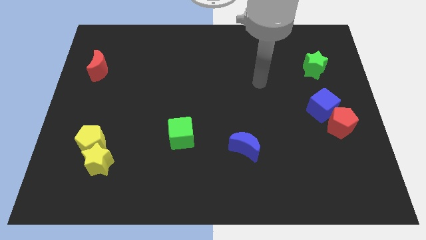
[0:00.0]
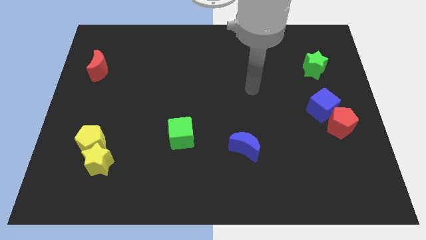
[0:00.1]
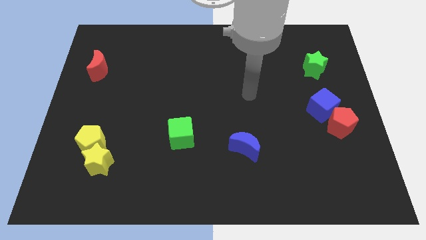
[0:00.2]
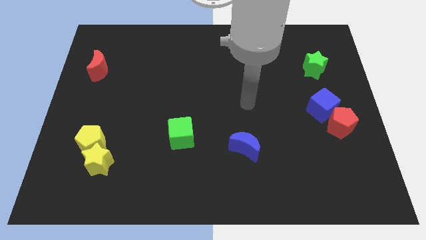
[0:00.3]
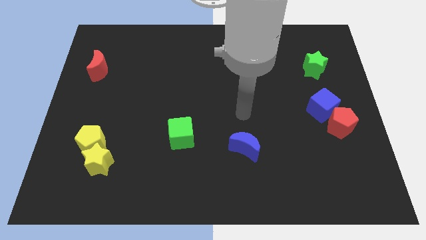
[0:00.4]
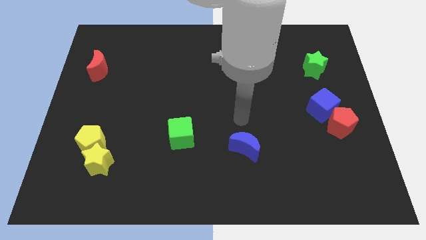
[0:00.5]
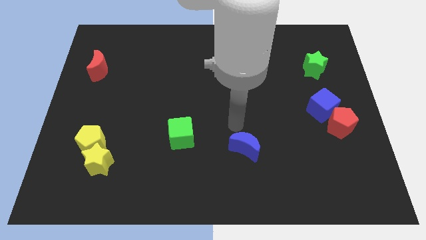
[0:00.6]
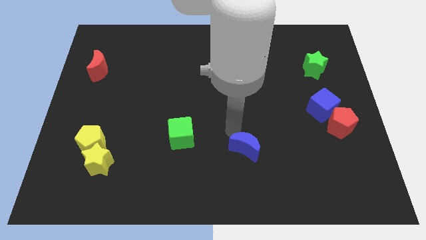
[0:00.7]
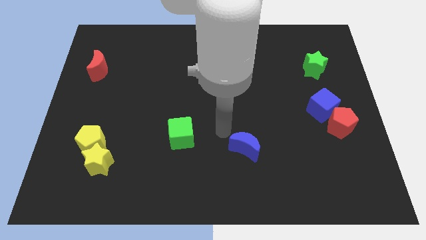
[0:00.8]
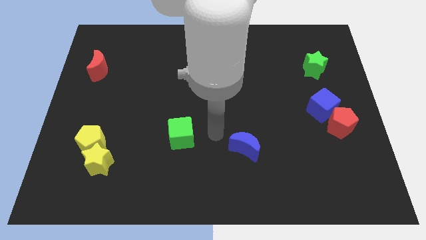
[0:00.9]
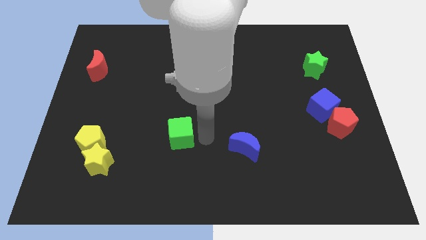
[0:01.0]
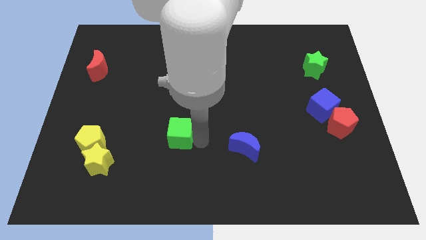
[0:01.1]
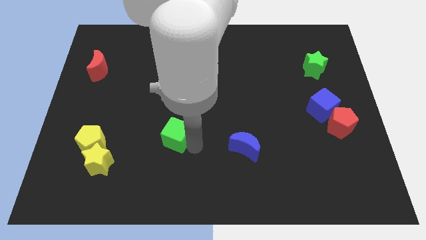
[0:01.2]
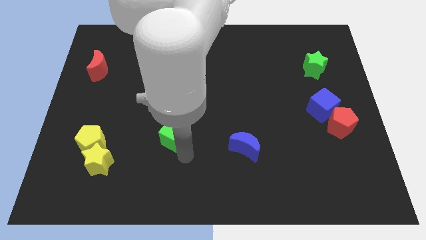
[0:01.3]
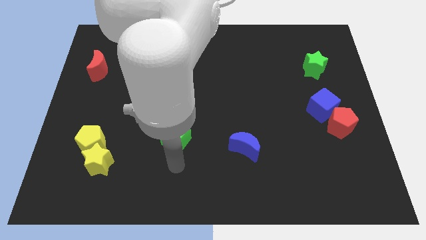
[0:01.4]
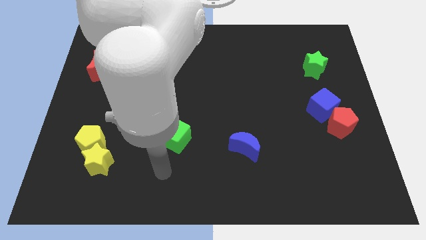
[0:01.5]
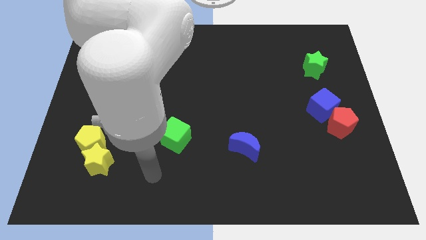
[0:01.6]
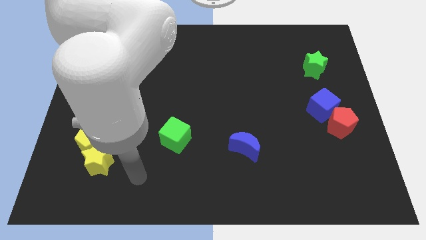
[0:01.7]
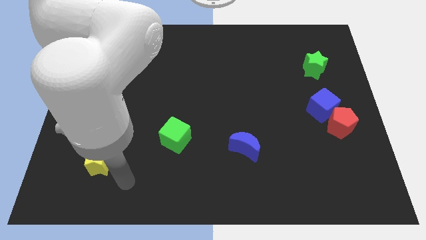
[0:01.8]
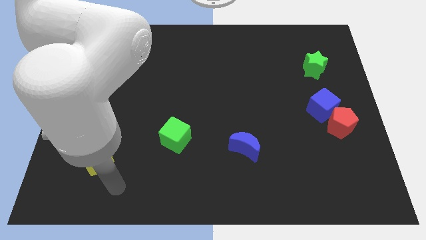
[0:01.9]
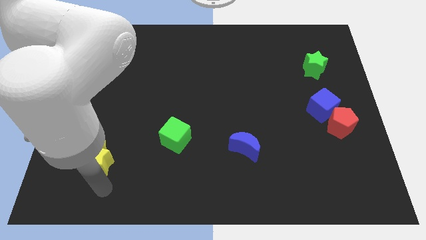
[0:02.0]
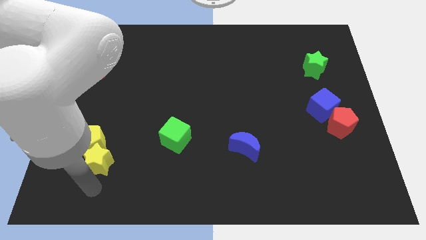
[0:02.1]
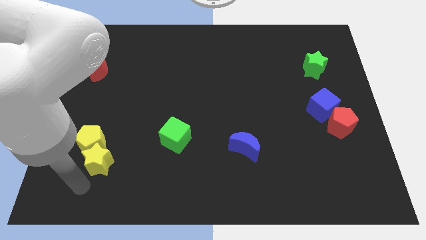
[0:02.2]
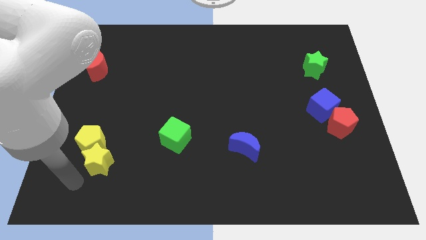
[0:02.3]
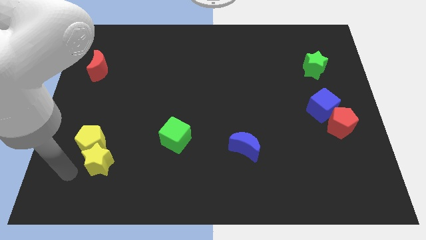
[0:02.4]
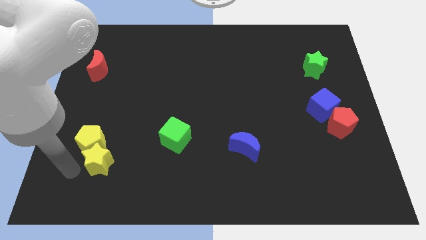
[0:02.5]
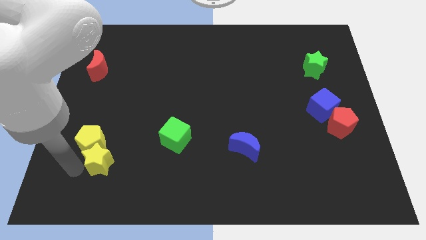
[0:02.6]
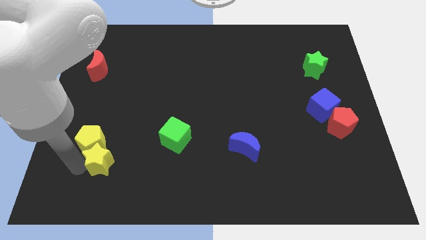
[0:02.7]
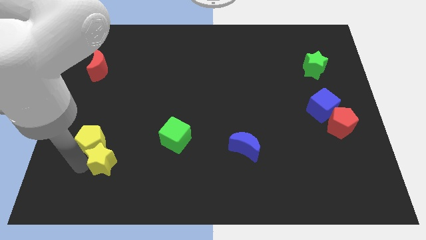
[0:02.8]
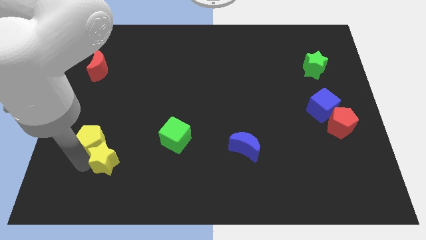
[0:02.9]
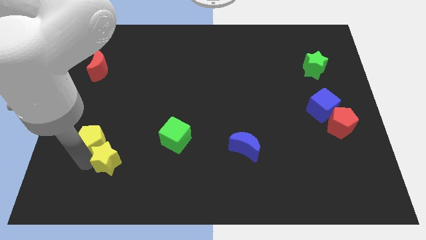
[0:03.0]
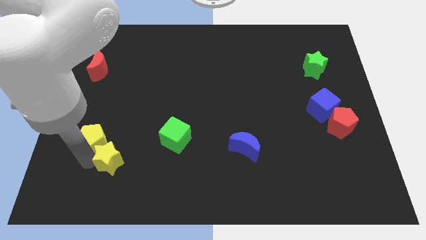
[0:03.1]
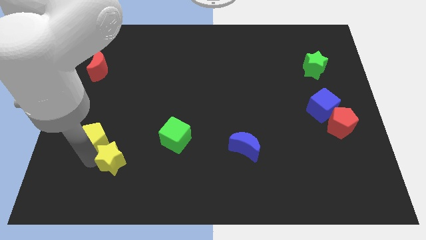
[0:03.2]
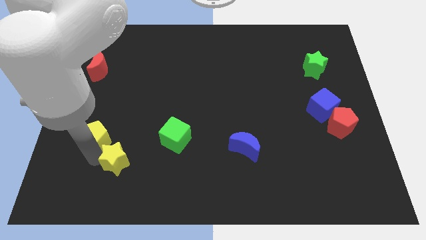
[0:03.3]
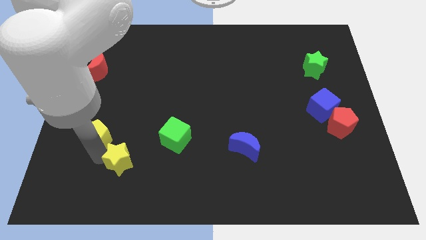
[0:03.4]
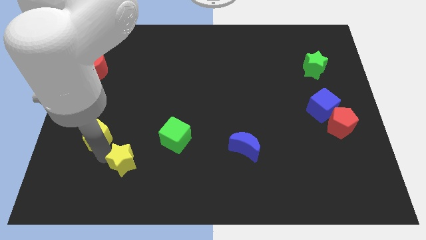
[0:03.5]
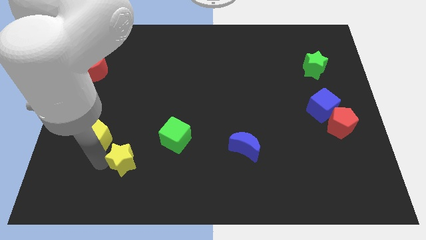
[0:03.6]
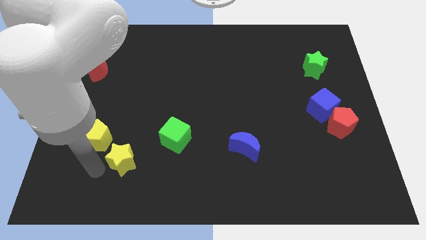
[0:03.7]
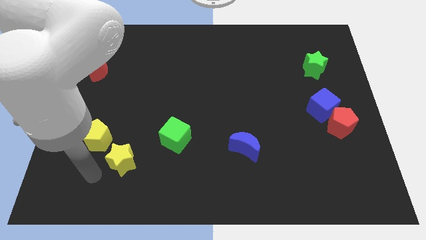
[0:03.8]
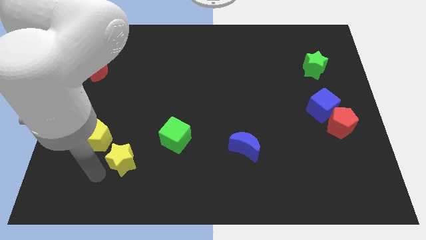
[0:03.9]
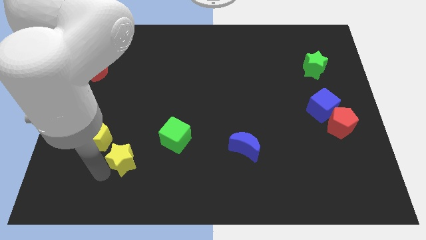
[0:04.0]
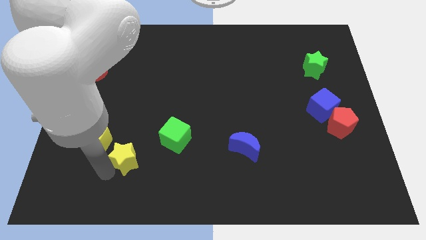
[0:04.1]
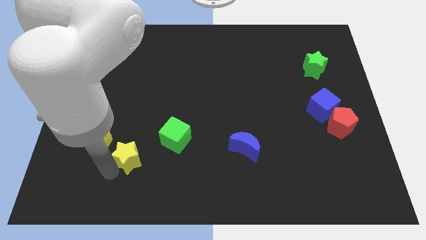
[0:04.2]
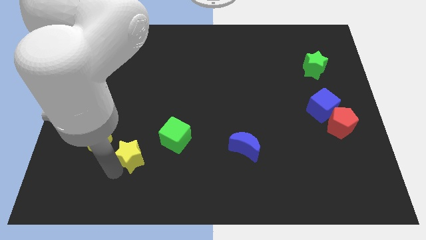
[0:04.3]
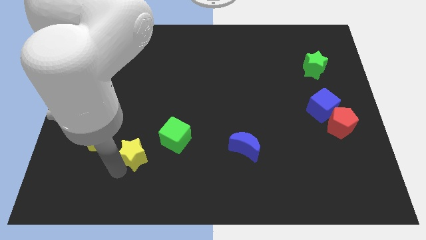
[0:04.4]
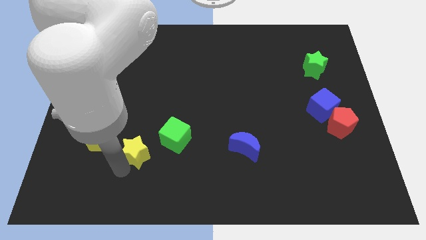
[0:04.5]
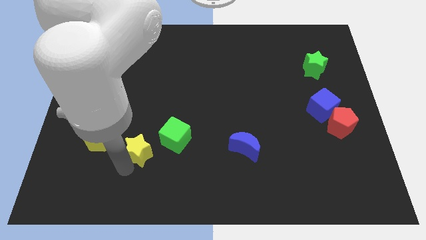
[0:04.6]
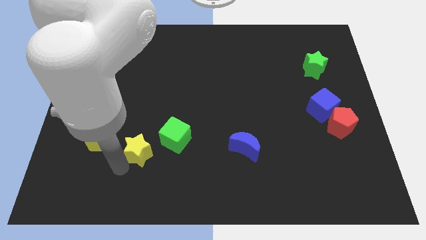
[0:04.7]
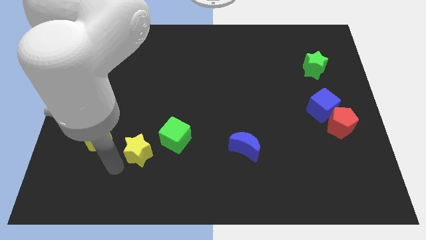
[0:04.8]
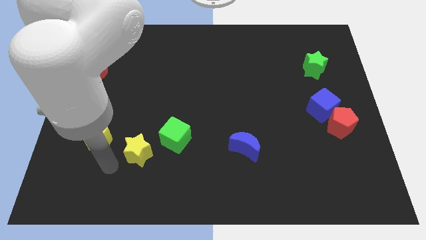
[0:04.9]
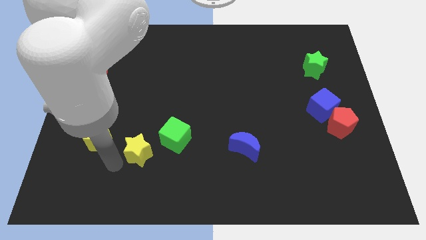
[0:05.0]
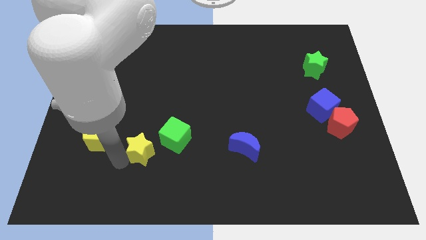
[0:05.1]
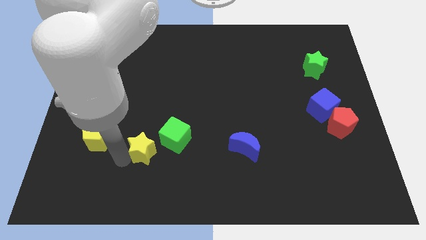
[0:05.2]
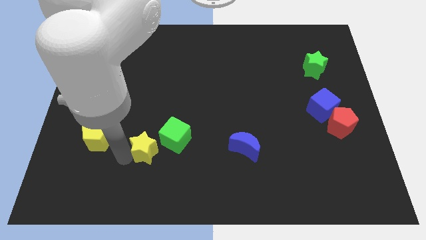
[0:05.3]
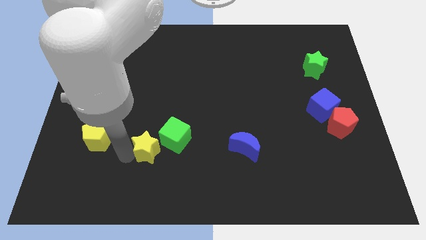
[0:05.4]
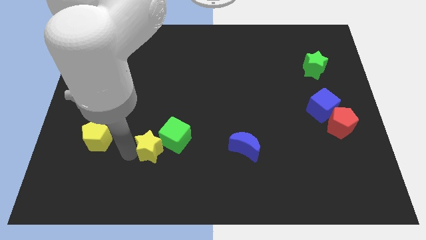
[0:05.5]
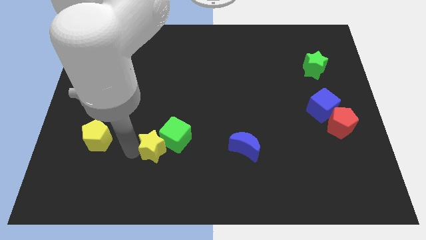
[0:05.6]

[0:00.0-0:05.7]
move the yellow star towards the green cube

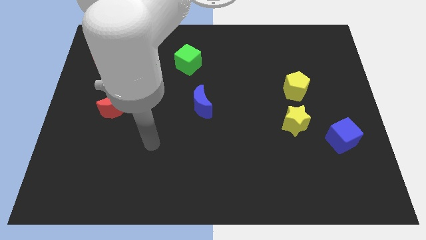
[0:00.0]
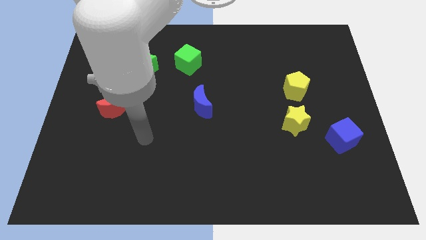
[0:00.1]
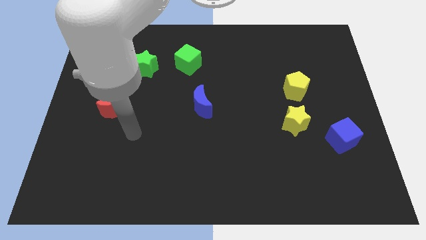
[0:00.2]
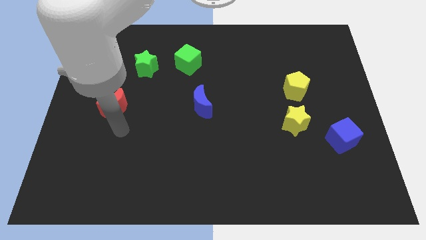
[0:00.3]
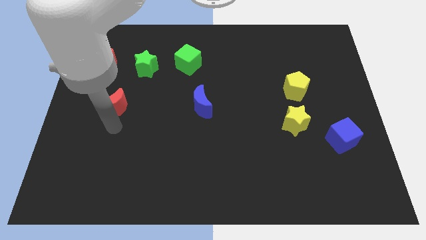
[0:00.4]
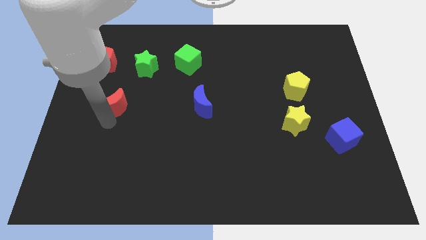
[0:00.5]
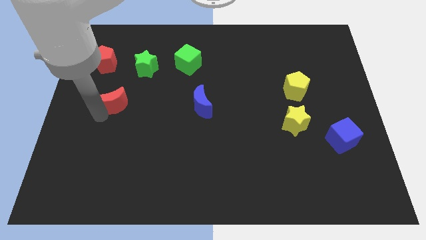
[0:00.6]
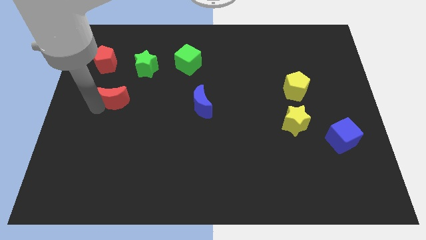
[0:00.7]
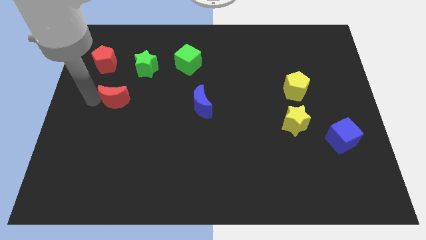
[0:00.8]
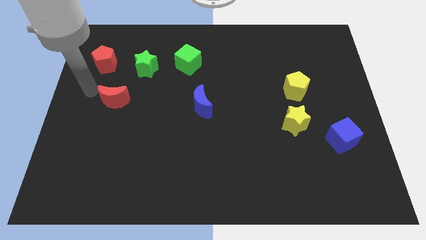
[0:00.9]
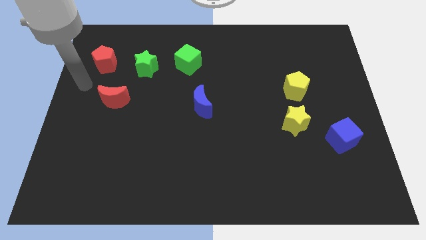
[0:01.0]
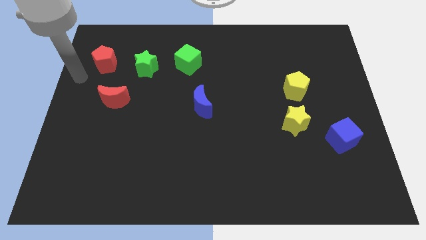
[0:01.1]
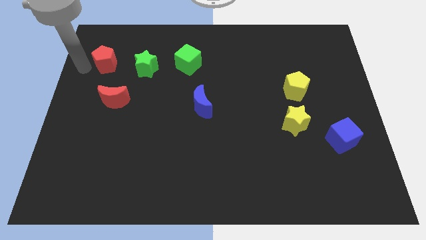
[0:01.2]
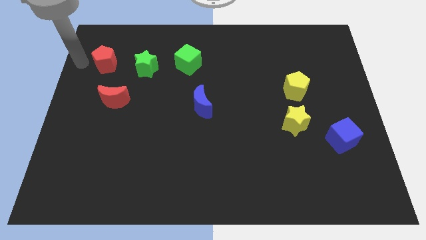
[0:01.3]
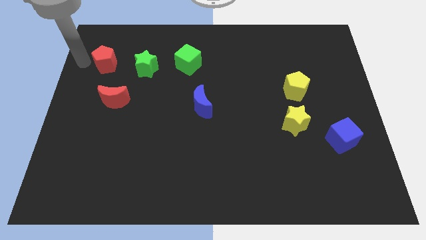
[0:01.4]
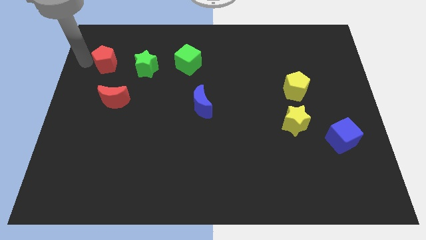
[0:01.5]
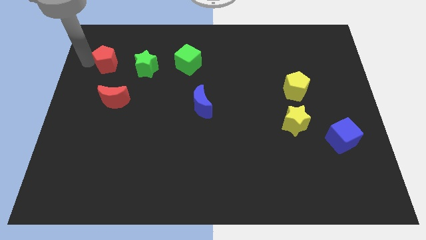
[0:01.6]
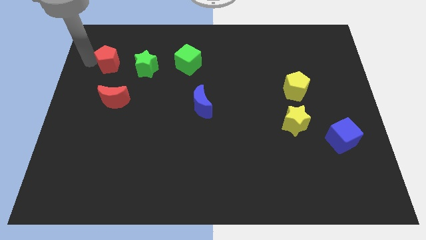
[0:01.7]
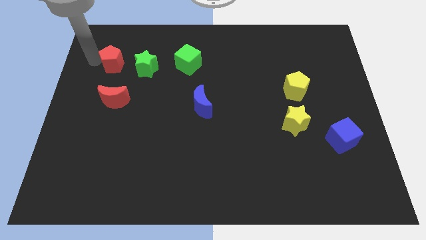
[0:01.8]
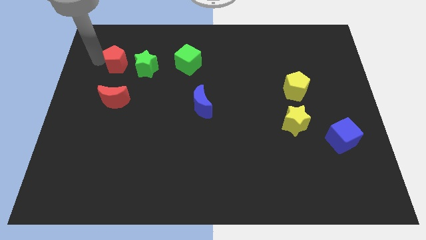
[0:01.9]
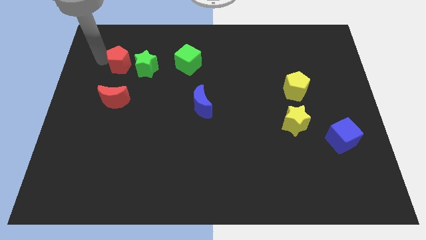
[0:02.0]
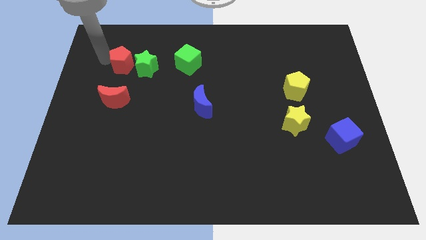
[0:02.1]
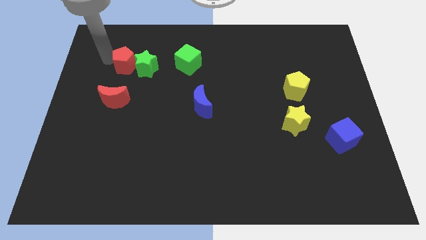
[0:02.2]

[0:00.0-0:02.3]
move the red pentagon to the green star
